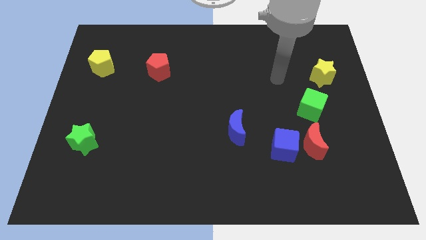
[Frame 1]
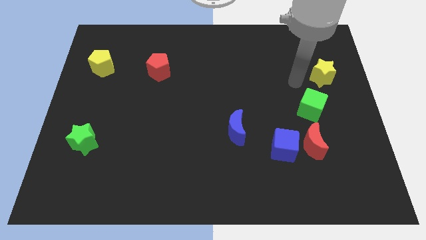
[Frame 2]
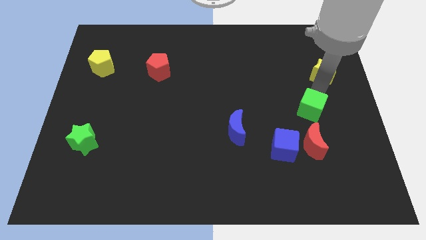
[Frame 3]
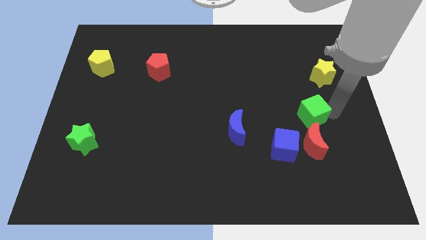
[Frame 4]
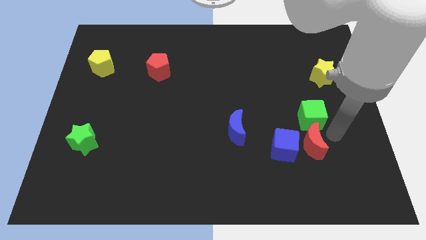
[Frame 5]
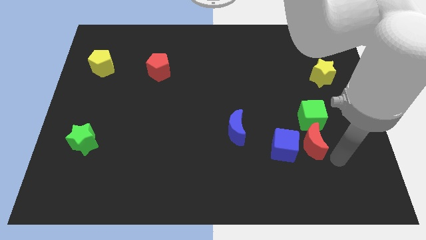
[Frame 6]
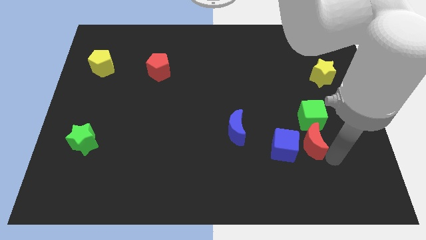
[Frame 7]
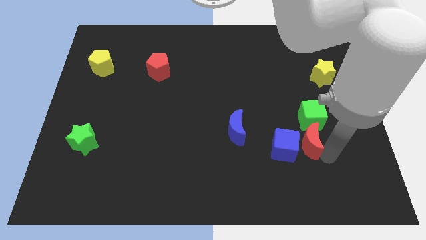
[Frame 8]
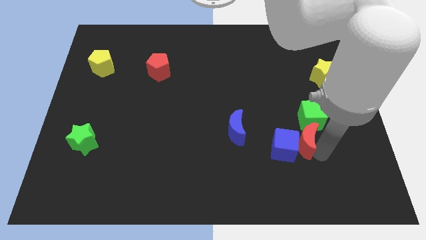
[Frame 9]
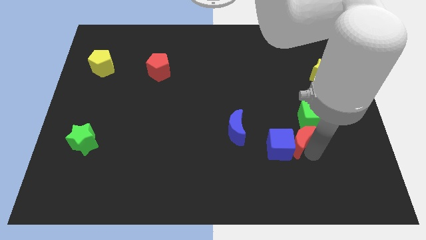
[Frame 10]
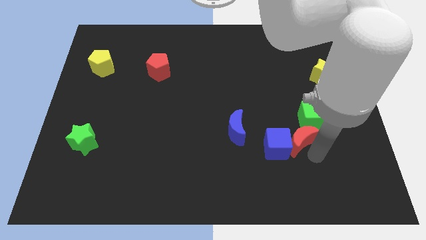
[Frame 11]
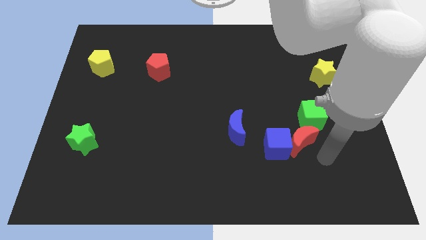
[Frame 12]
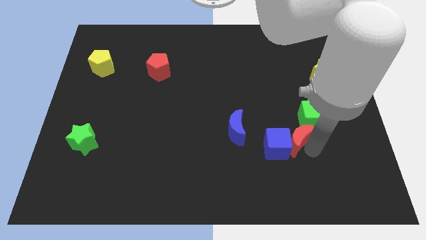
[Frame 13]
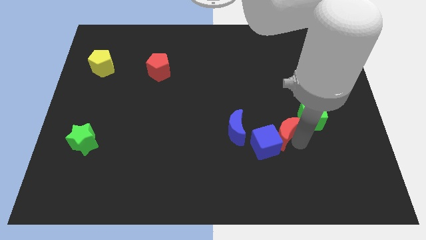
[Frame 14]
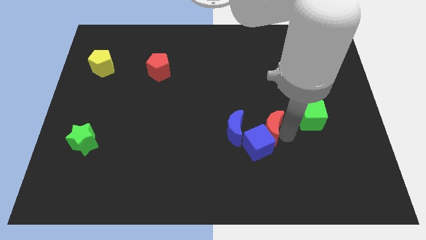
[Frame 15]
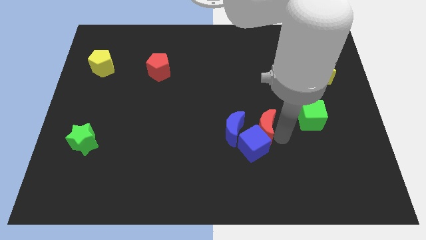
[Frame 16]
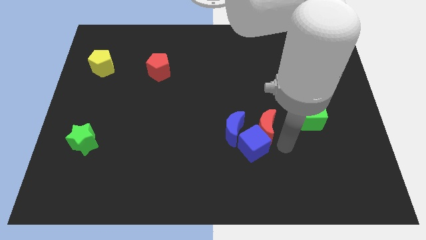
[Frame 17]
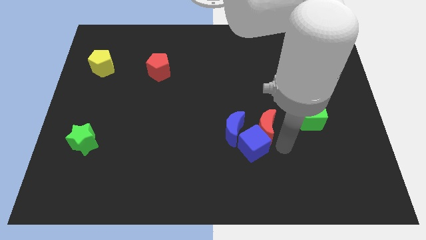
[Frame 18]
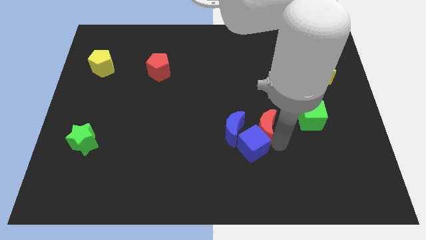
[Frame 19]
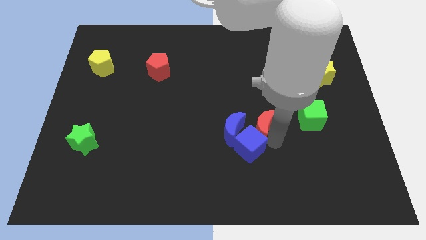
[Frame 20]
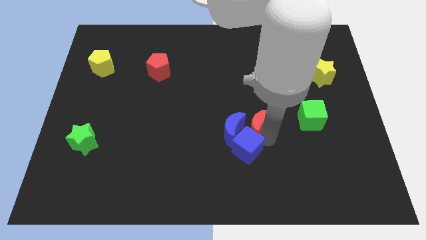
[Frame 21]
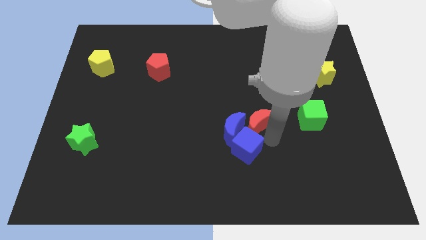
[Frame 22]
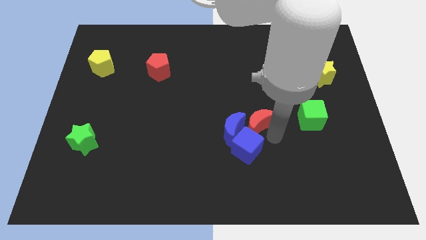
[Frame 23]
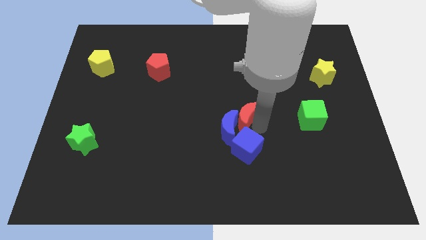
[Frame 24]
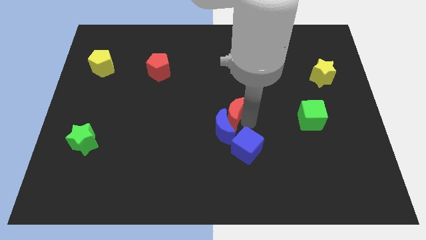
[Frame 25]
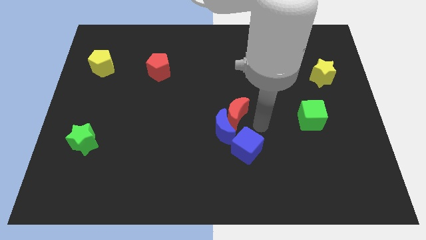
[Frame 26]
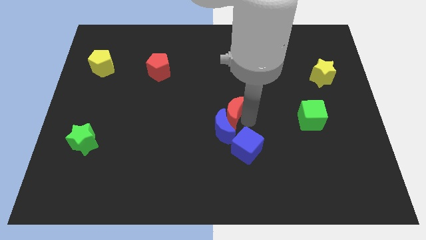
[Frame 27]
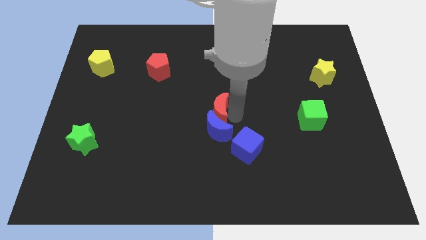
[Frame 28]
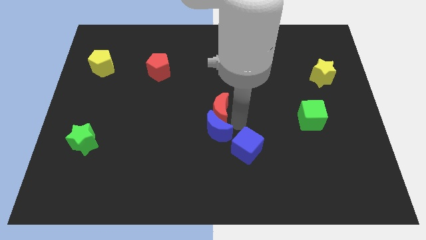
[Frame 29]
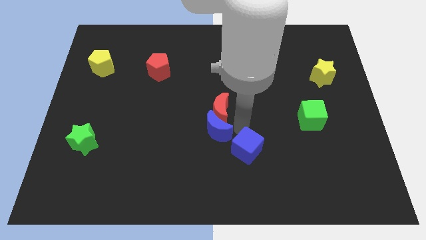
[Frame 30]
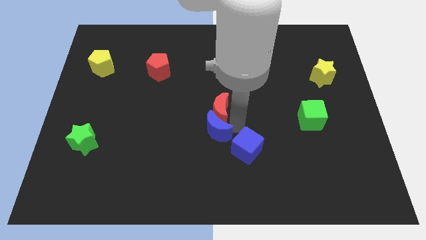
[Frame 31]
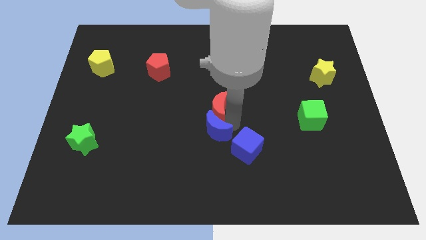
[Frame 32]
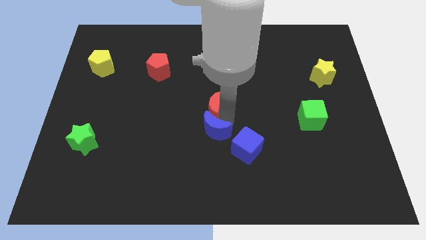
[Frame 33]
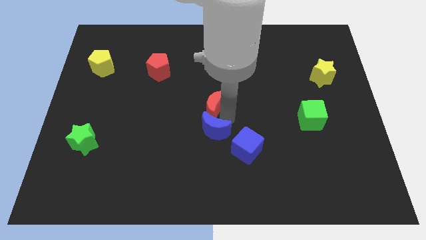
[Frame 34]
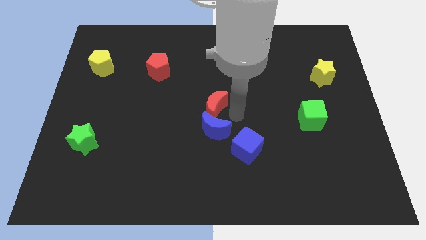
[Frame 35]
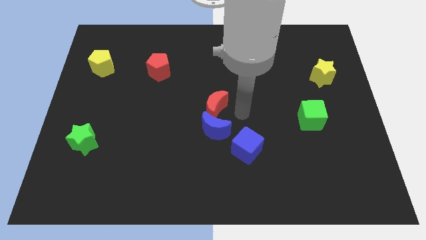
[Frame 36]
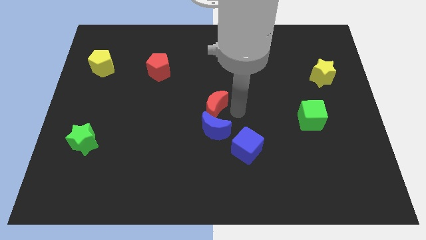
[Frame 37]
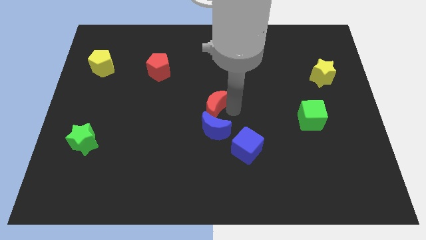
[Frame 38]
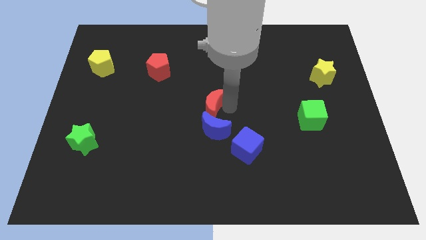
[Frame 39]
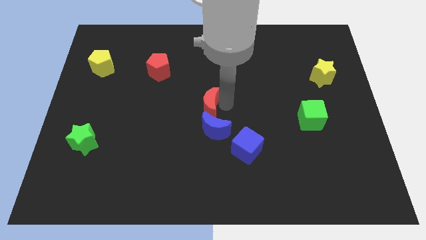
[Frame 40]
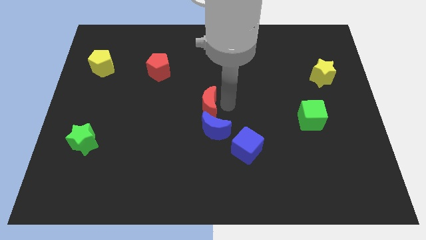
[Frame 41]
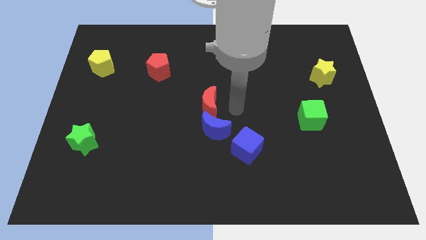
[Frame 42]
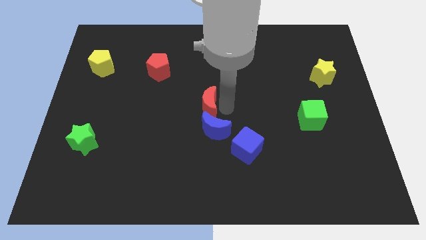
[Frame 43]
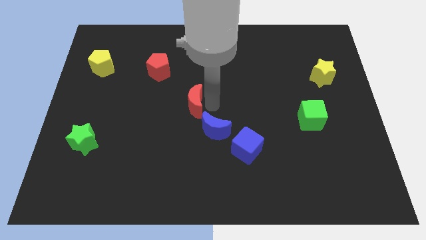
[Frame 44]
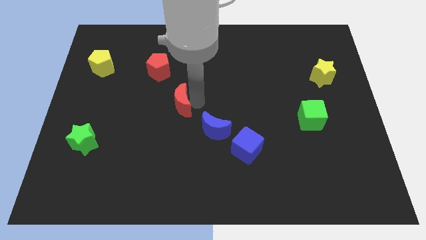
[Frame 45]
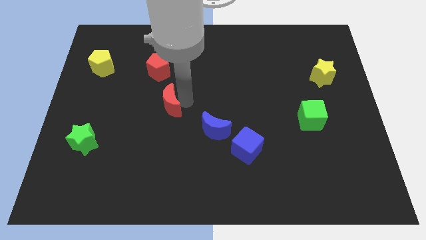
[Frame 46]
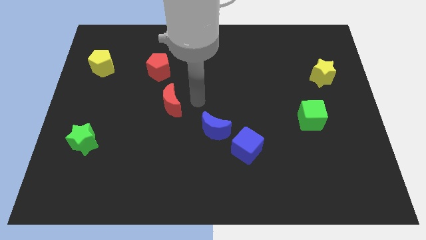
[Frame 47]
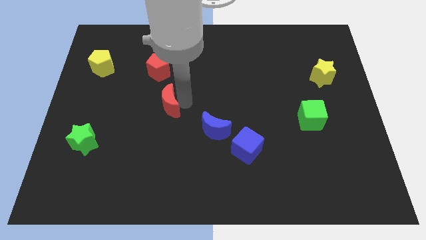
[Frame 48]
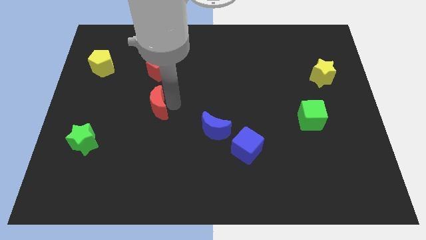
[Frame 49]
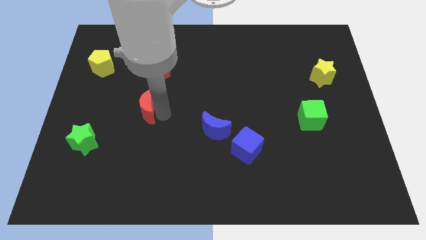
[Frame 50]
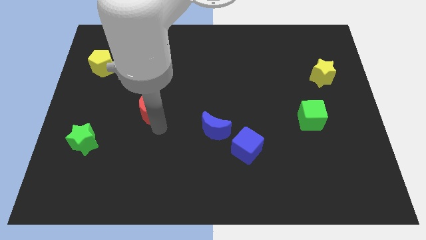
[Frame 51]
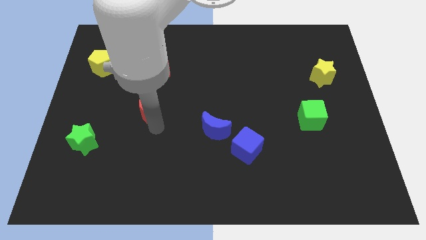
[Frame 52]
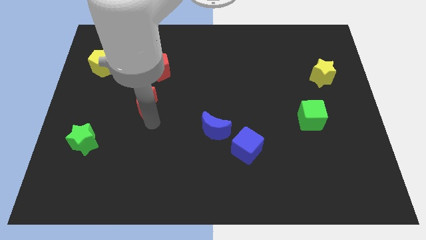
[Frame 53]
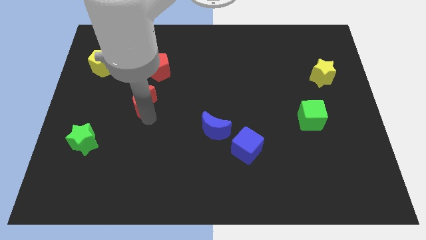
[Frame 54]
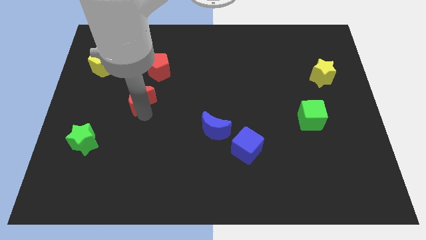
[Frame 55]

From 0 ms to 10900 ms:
push the red moon to the bottom left side of the red pentagon

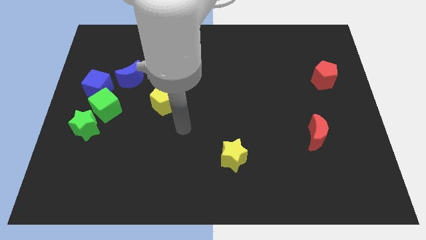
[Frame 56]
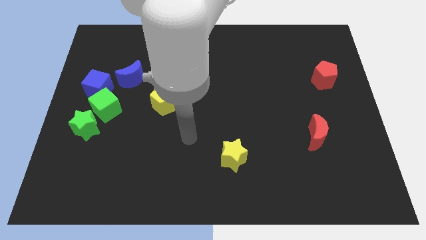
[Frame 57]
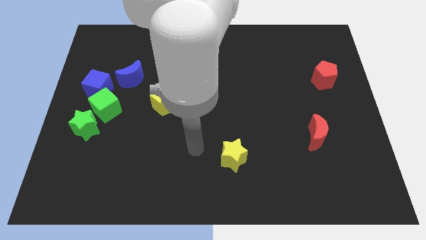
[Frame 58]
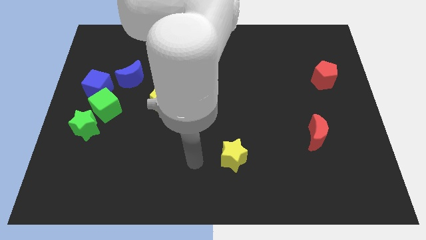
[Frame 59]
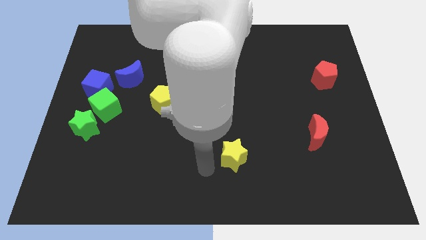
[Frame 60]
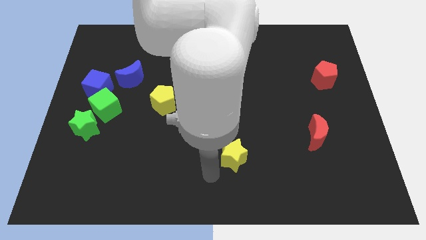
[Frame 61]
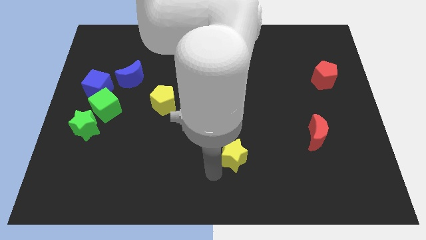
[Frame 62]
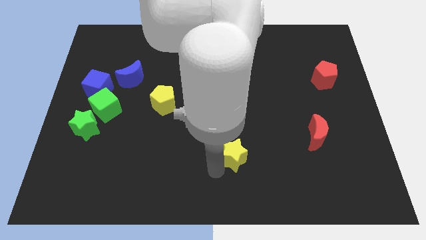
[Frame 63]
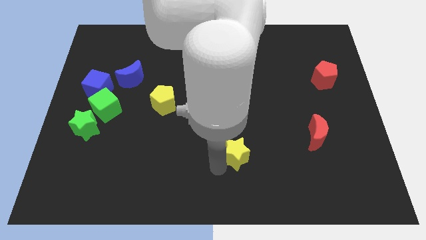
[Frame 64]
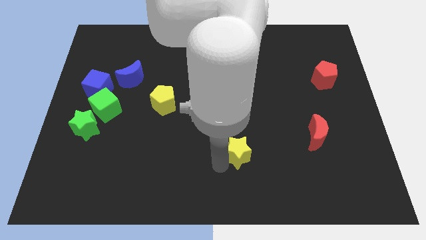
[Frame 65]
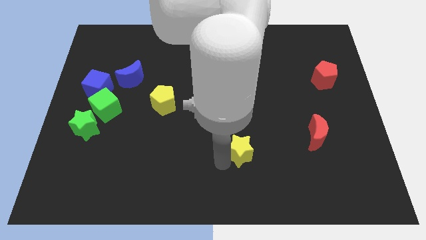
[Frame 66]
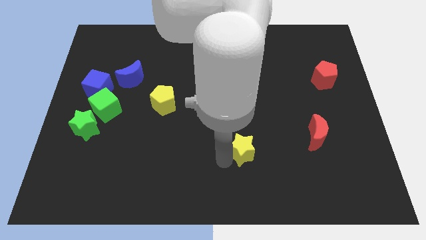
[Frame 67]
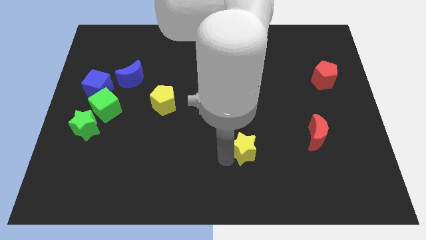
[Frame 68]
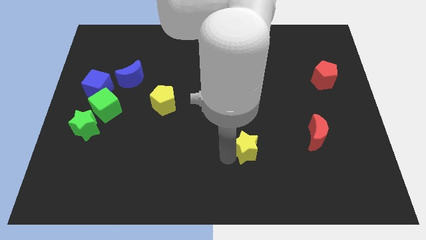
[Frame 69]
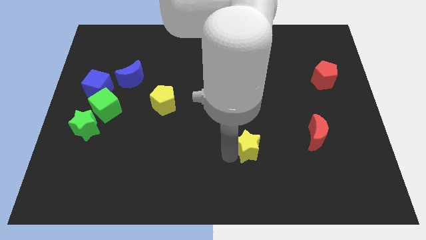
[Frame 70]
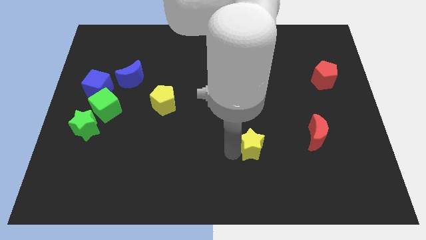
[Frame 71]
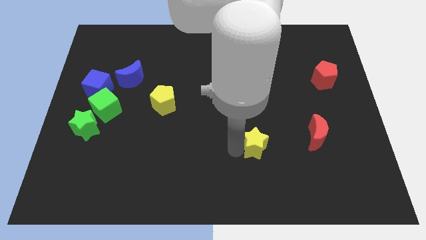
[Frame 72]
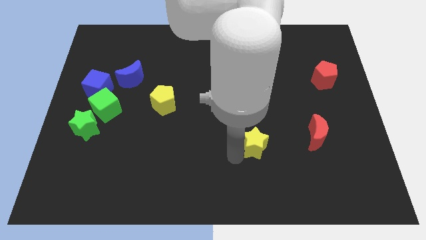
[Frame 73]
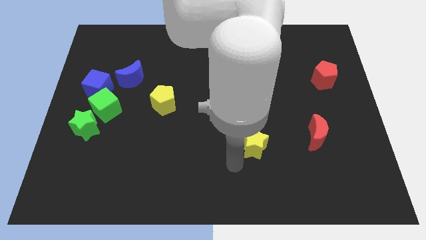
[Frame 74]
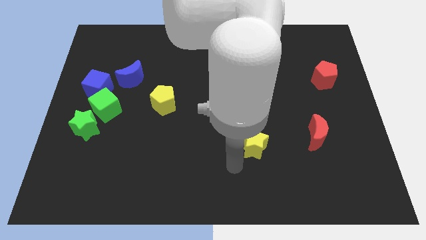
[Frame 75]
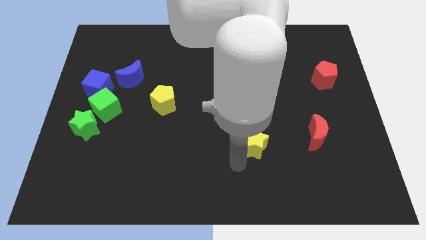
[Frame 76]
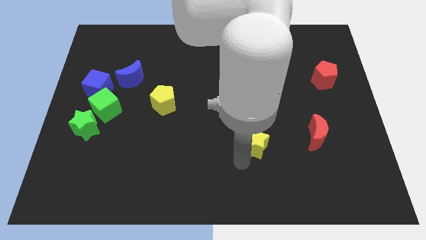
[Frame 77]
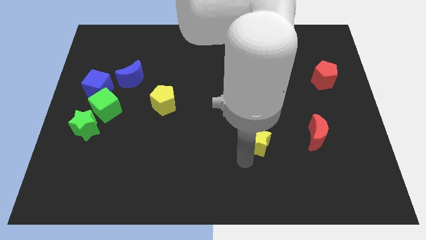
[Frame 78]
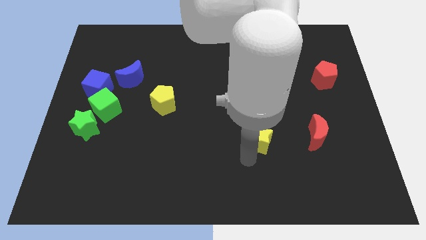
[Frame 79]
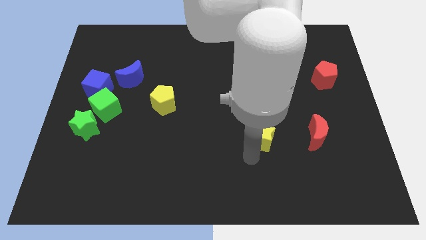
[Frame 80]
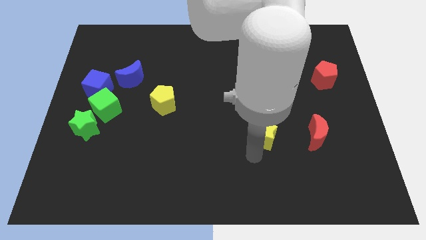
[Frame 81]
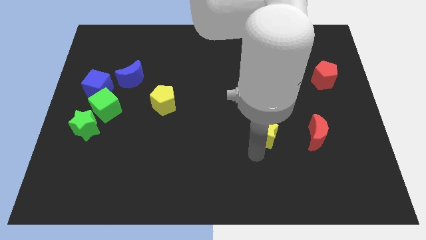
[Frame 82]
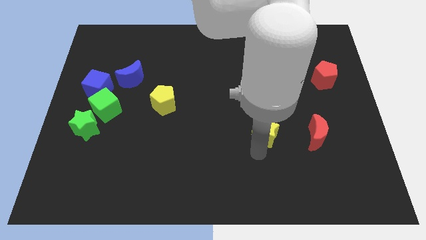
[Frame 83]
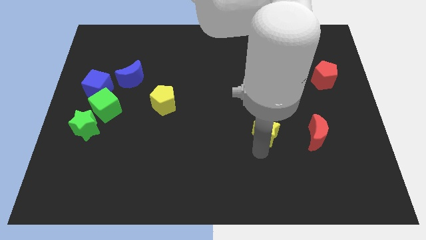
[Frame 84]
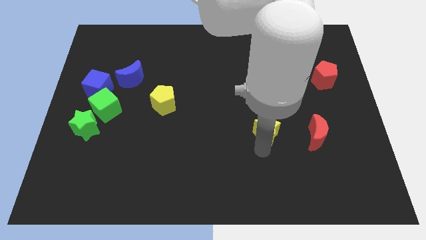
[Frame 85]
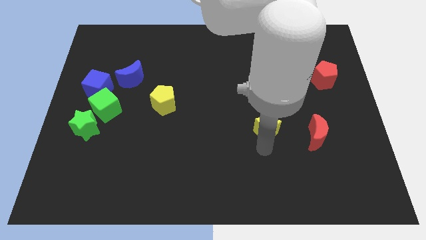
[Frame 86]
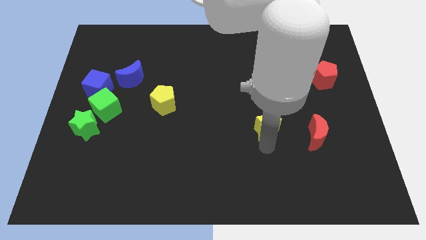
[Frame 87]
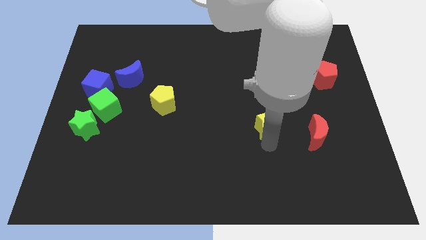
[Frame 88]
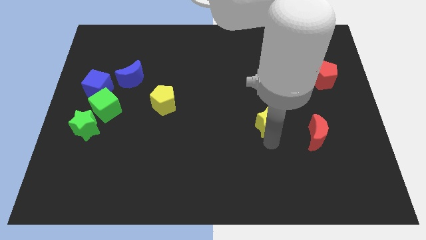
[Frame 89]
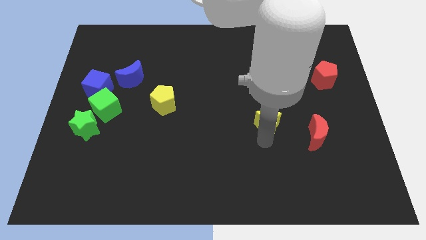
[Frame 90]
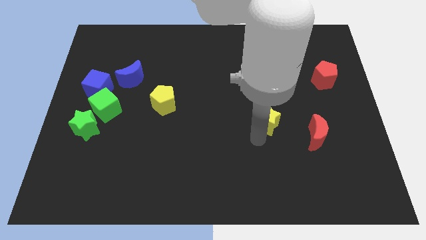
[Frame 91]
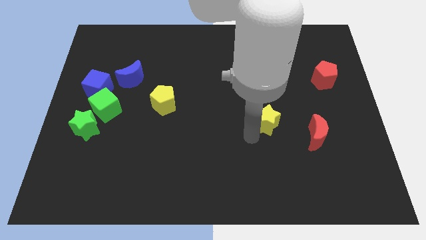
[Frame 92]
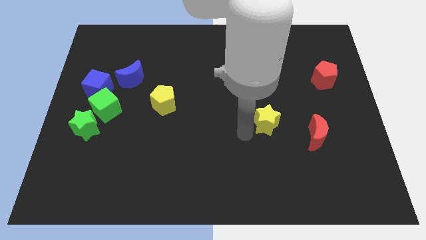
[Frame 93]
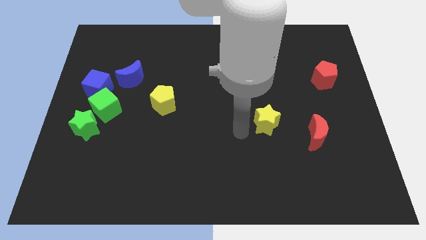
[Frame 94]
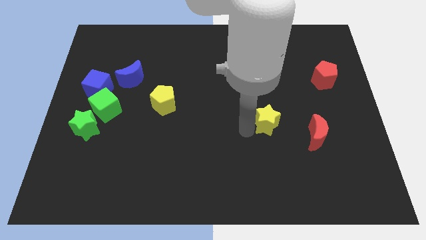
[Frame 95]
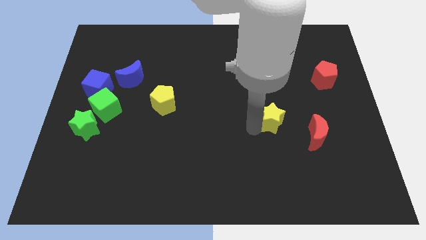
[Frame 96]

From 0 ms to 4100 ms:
slide the yellow star diagonally up and to the left of the red moon
